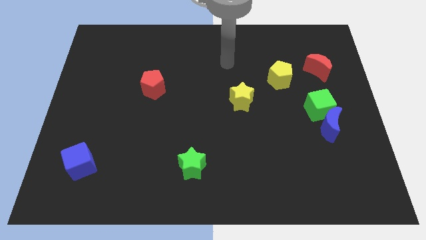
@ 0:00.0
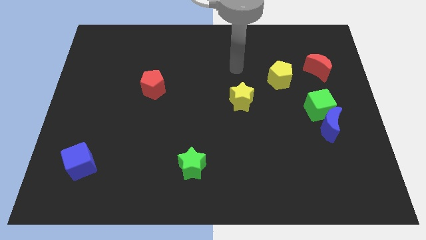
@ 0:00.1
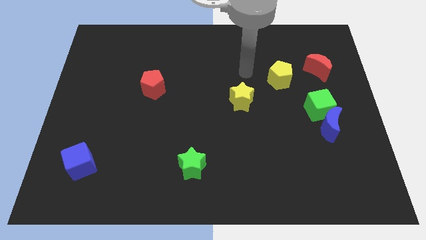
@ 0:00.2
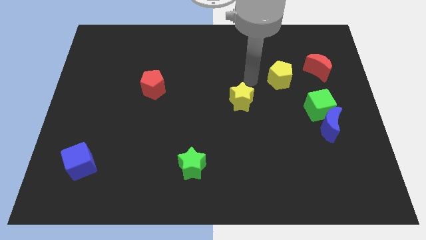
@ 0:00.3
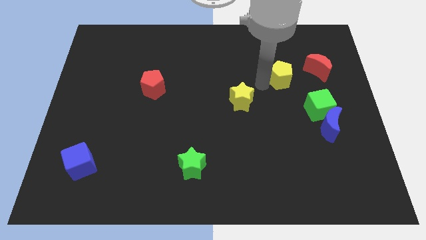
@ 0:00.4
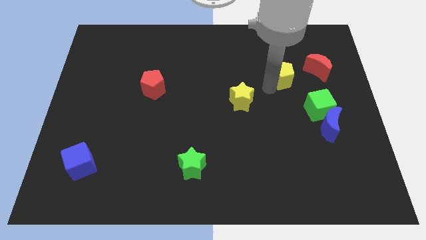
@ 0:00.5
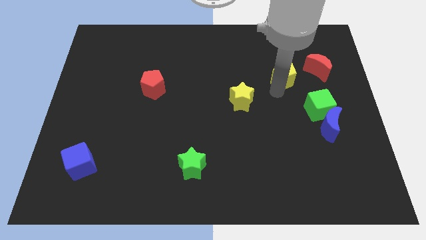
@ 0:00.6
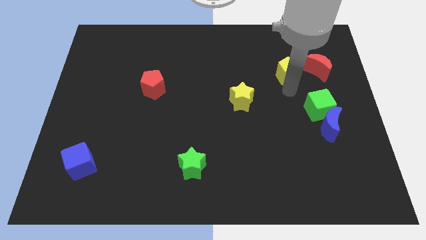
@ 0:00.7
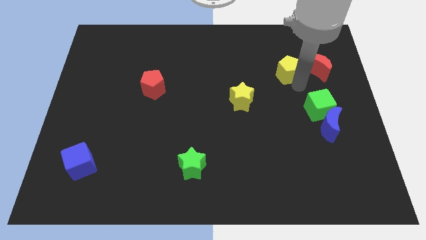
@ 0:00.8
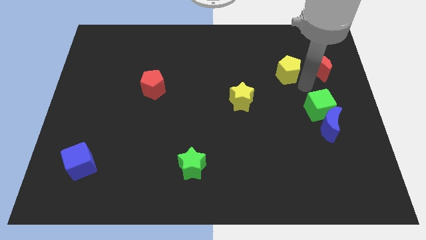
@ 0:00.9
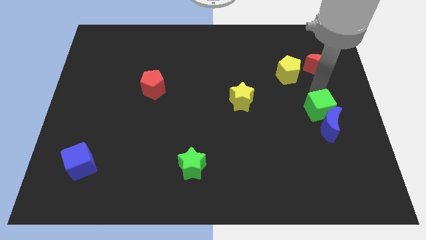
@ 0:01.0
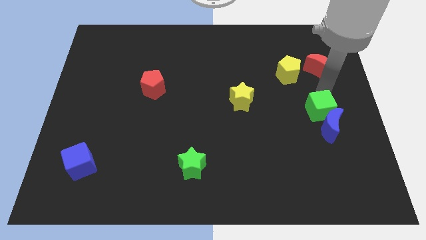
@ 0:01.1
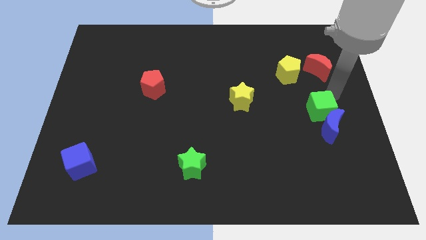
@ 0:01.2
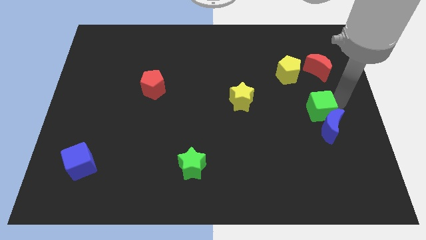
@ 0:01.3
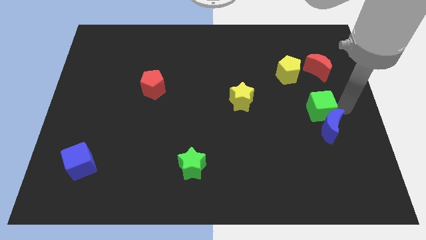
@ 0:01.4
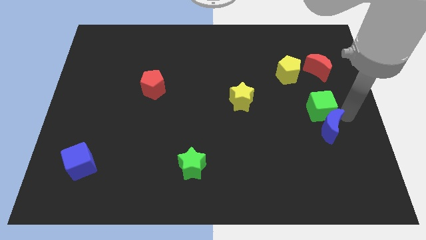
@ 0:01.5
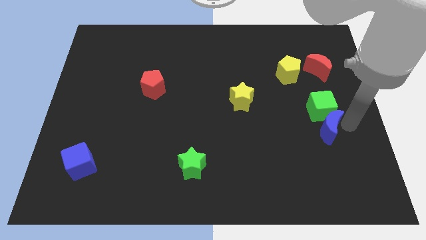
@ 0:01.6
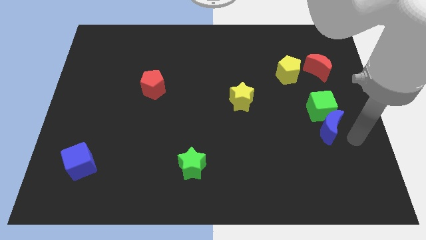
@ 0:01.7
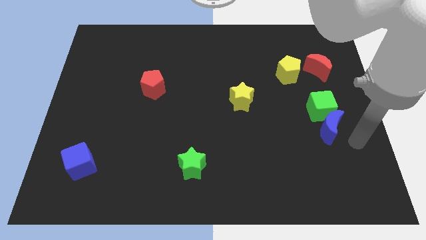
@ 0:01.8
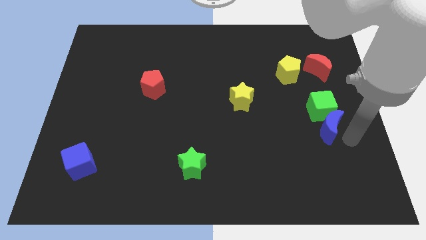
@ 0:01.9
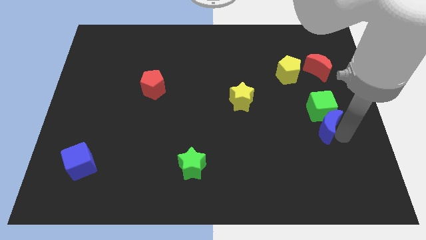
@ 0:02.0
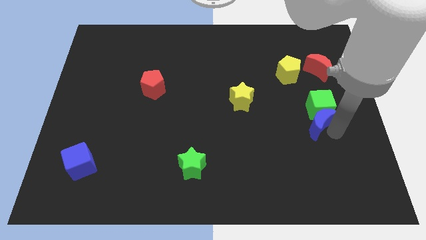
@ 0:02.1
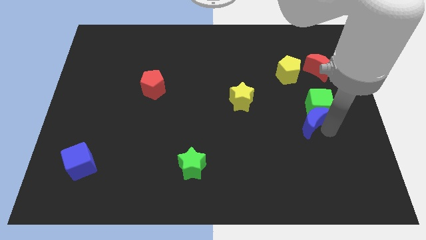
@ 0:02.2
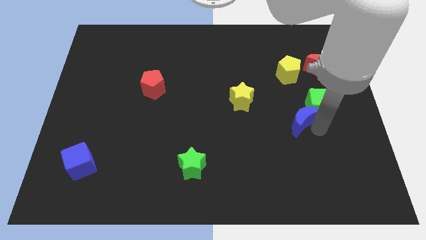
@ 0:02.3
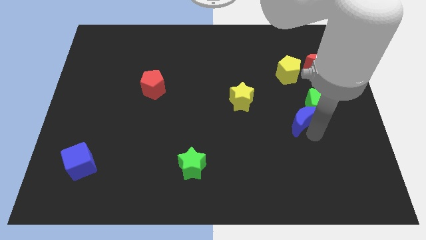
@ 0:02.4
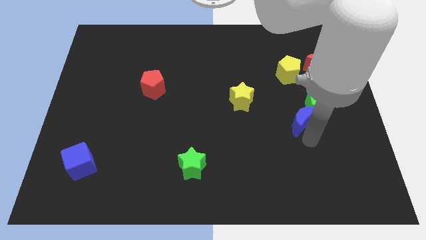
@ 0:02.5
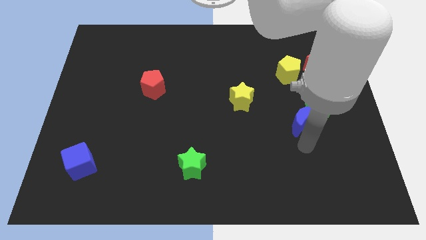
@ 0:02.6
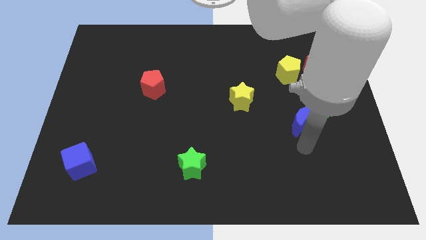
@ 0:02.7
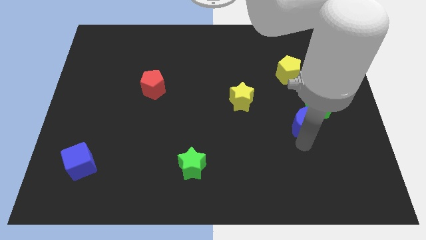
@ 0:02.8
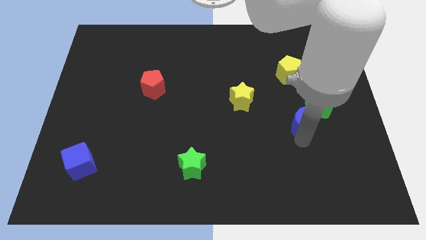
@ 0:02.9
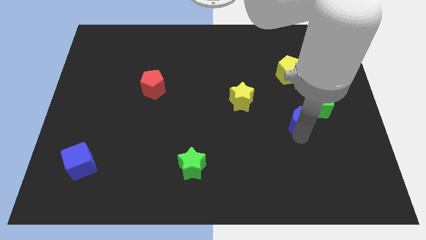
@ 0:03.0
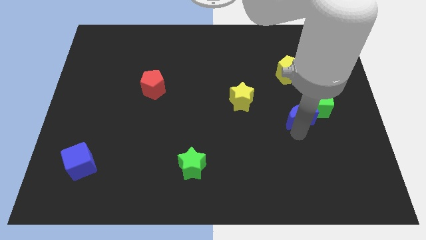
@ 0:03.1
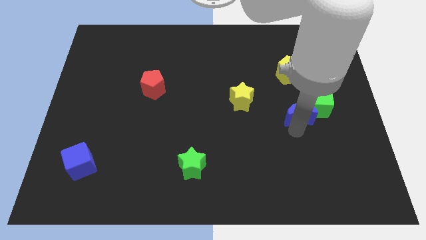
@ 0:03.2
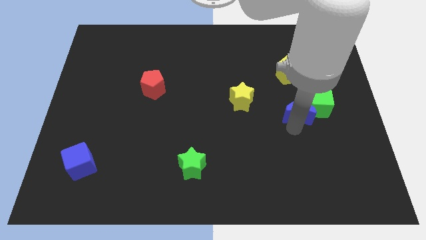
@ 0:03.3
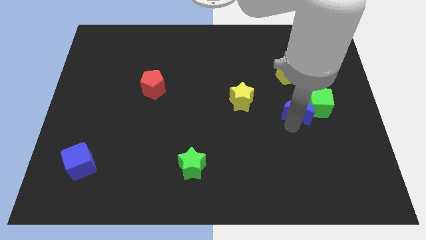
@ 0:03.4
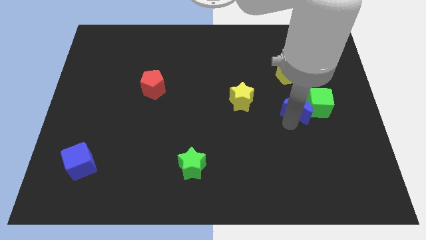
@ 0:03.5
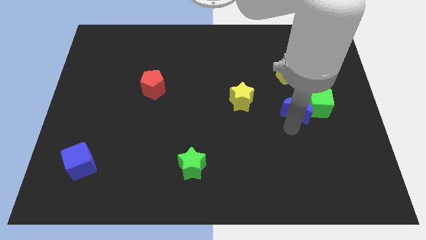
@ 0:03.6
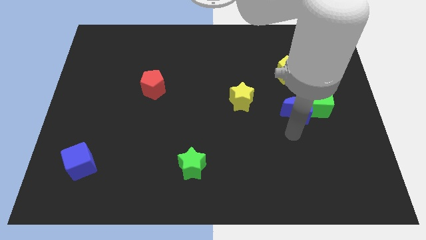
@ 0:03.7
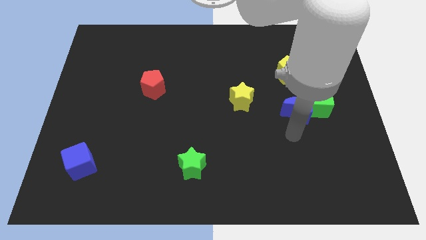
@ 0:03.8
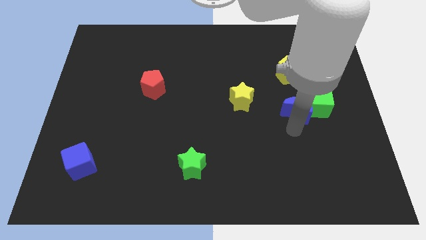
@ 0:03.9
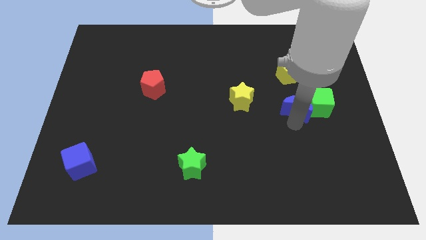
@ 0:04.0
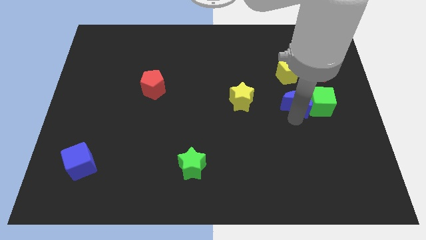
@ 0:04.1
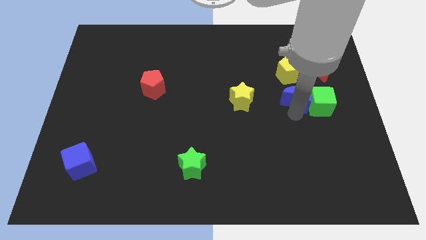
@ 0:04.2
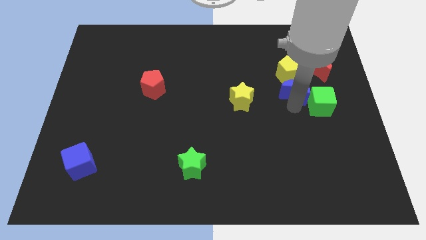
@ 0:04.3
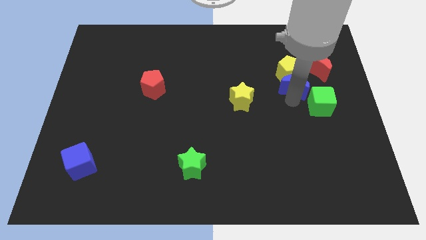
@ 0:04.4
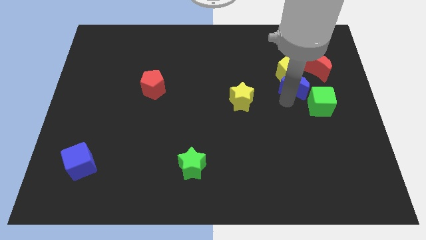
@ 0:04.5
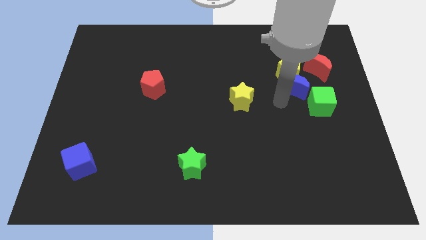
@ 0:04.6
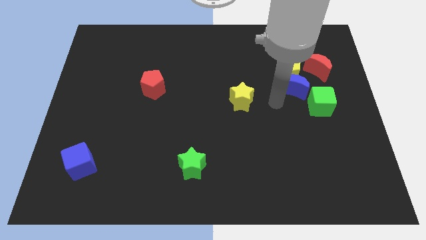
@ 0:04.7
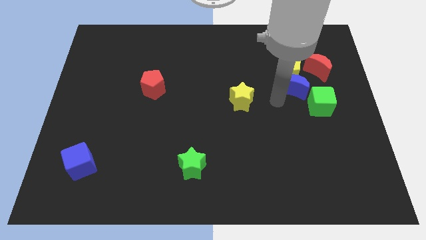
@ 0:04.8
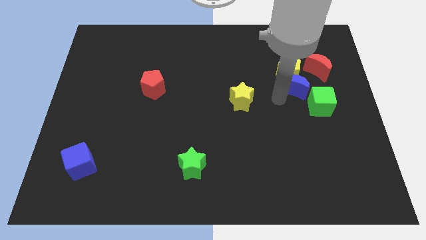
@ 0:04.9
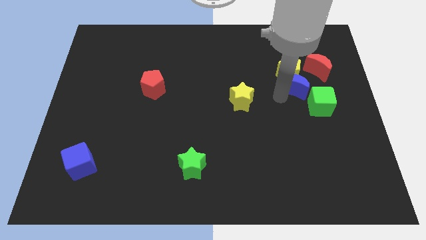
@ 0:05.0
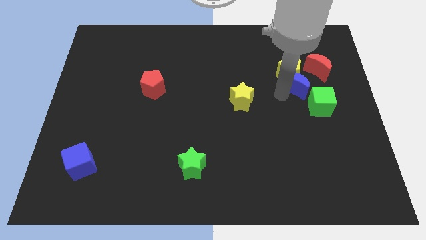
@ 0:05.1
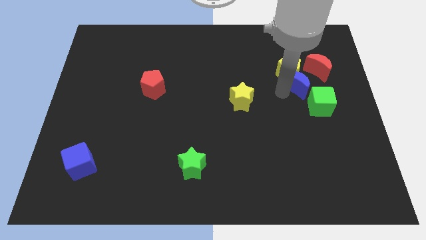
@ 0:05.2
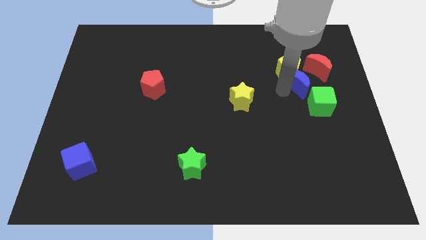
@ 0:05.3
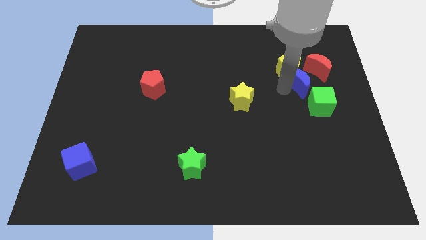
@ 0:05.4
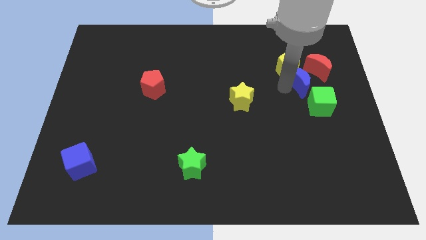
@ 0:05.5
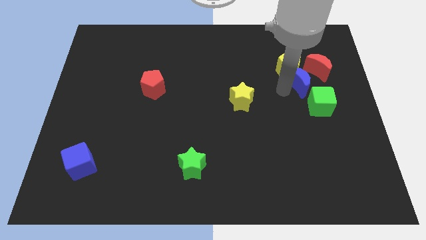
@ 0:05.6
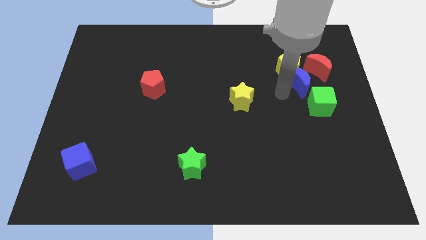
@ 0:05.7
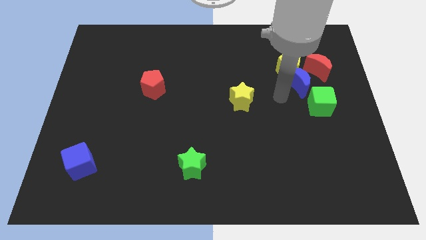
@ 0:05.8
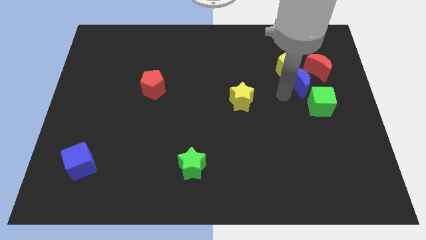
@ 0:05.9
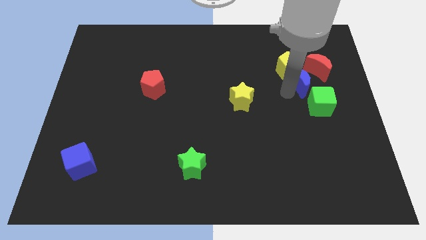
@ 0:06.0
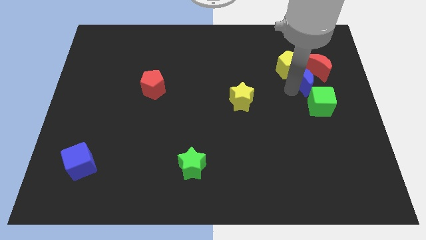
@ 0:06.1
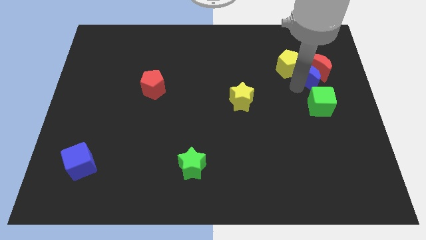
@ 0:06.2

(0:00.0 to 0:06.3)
push the blue moon next to the red moon

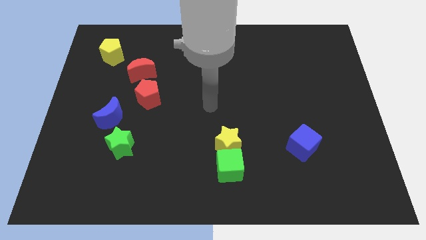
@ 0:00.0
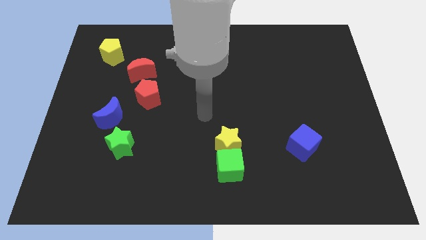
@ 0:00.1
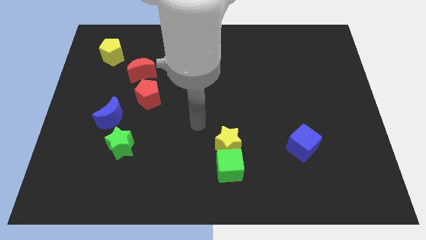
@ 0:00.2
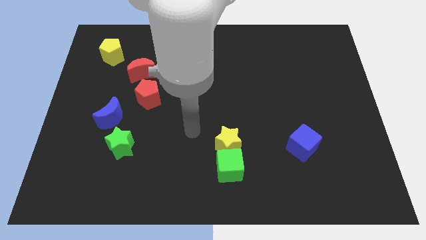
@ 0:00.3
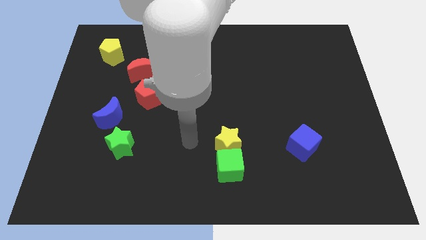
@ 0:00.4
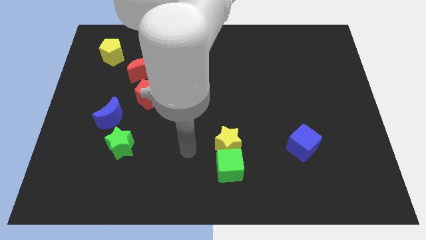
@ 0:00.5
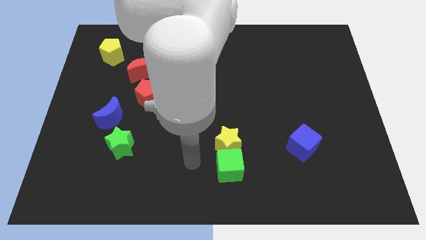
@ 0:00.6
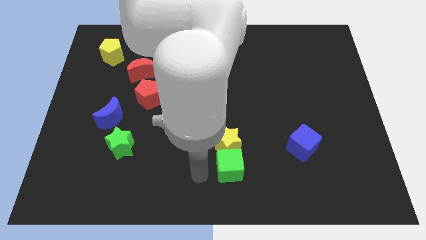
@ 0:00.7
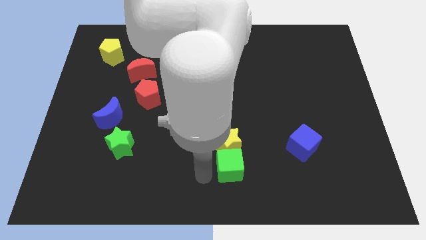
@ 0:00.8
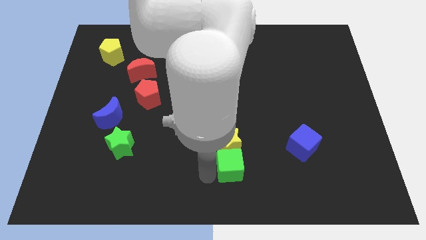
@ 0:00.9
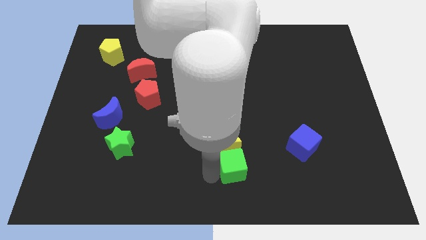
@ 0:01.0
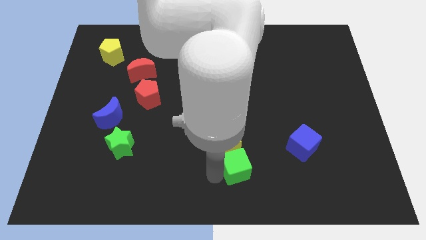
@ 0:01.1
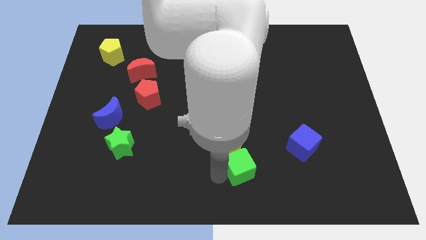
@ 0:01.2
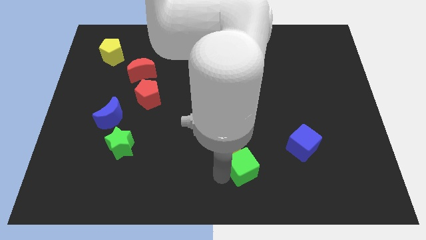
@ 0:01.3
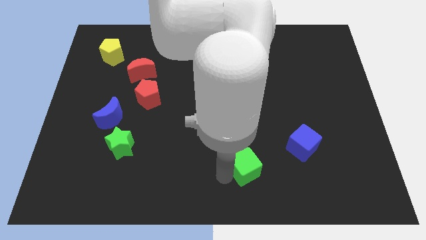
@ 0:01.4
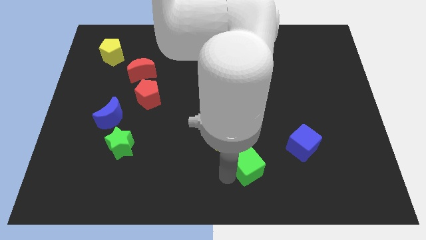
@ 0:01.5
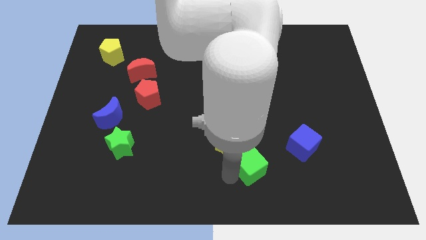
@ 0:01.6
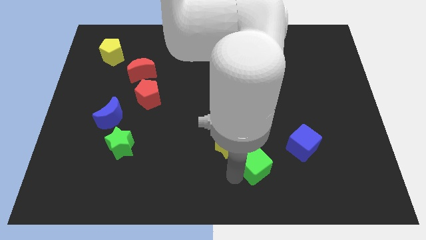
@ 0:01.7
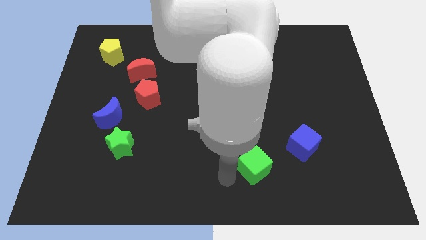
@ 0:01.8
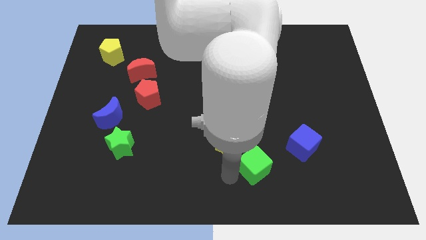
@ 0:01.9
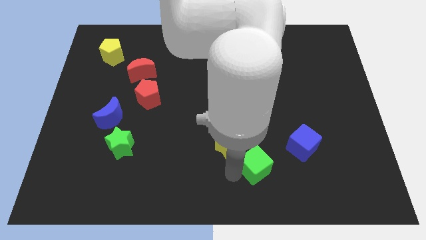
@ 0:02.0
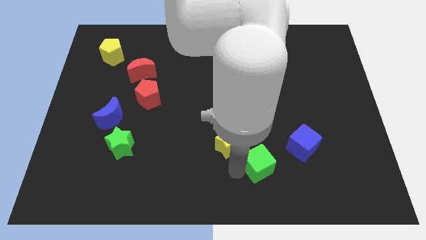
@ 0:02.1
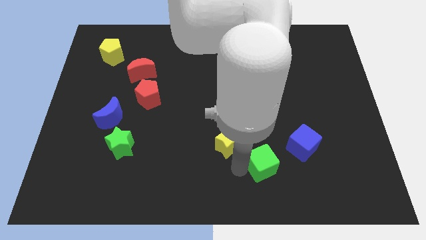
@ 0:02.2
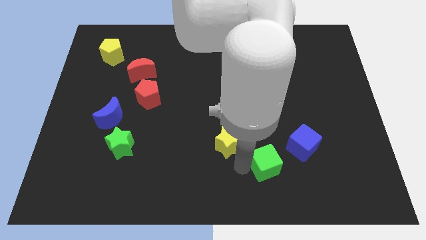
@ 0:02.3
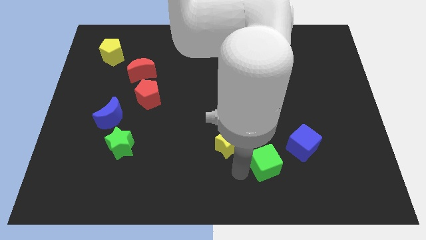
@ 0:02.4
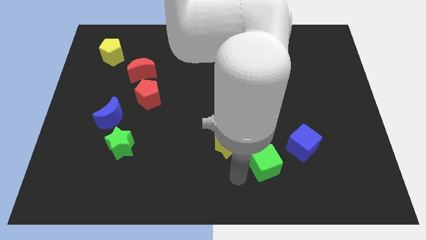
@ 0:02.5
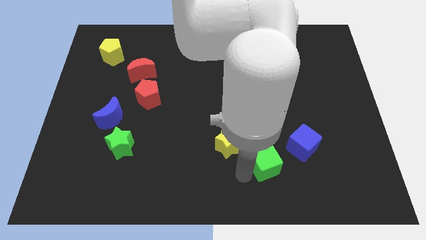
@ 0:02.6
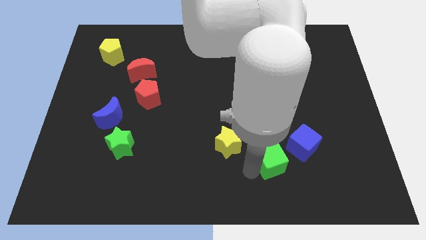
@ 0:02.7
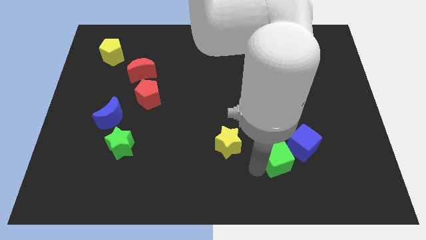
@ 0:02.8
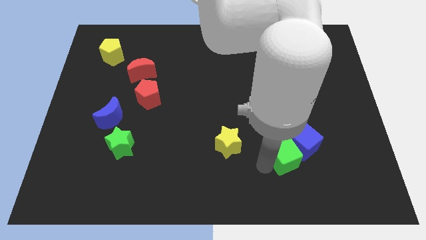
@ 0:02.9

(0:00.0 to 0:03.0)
push the green cube towards the blue cube
